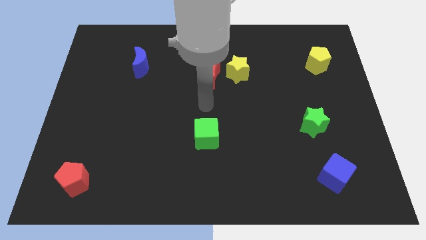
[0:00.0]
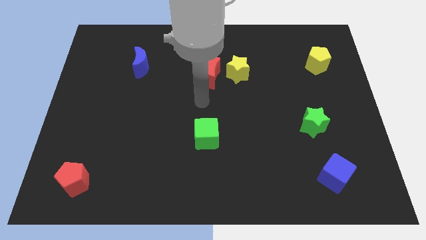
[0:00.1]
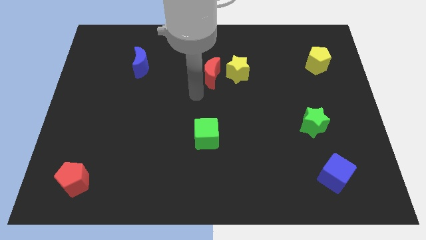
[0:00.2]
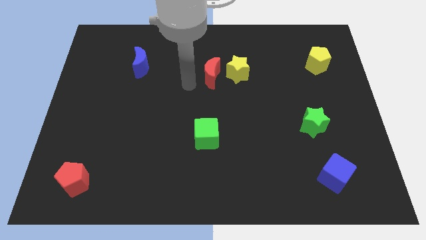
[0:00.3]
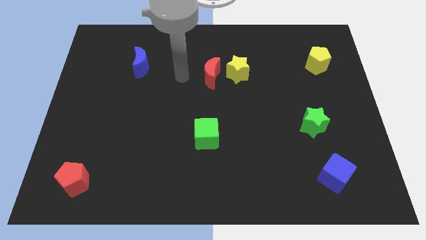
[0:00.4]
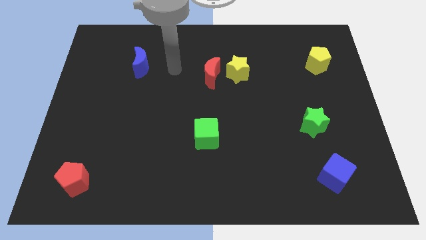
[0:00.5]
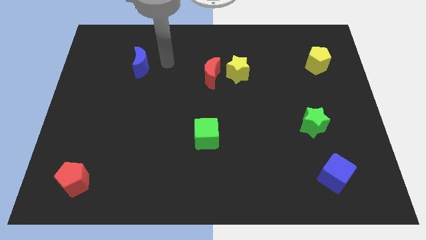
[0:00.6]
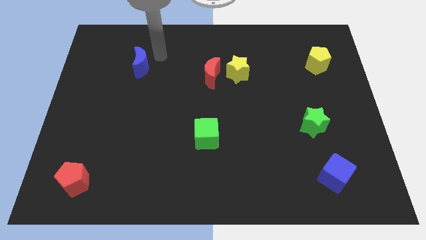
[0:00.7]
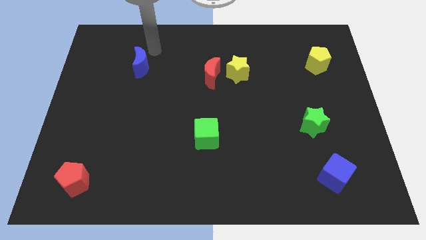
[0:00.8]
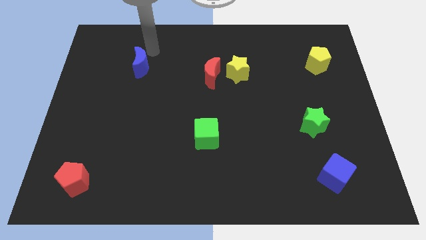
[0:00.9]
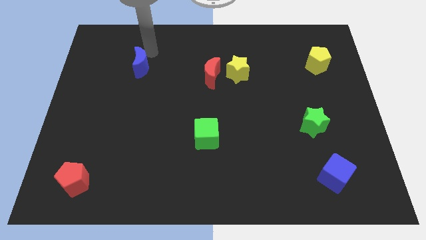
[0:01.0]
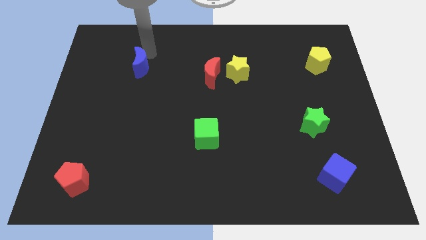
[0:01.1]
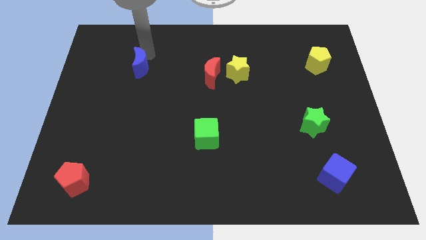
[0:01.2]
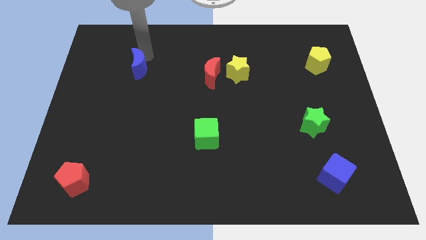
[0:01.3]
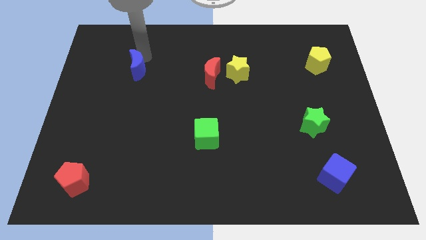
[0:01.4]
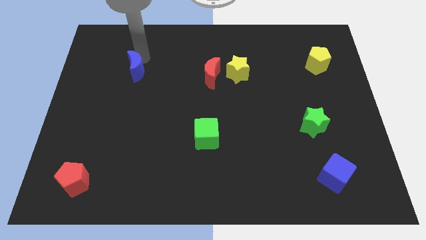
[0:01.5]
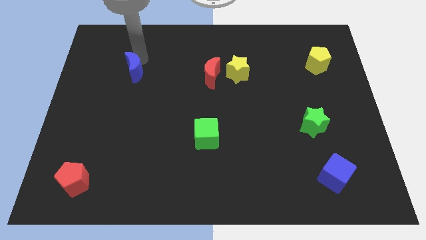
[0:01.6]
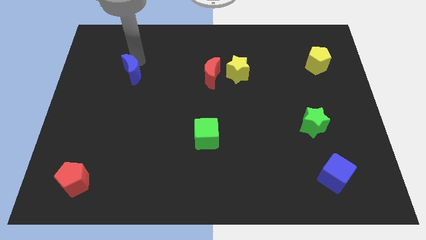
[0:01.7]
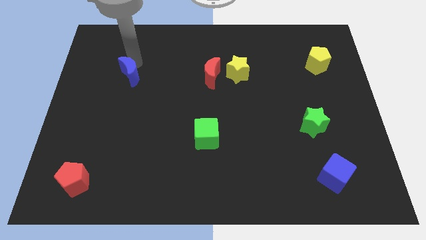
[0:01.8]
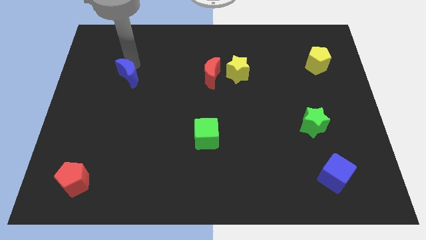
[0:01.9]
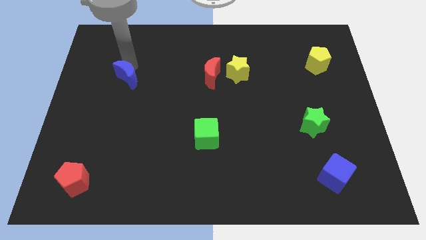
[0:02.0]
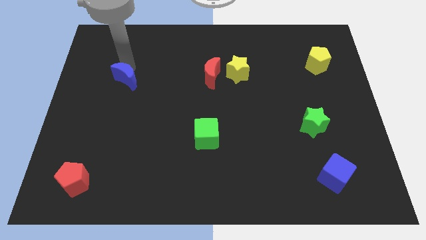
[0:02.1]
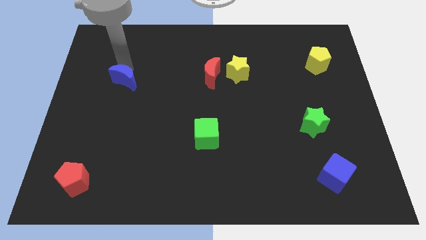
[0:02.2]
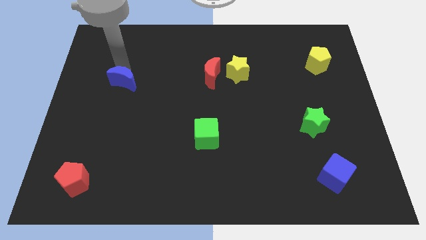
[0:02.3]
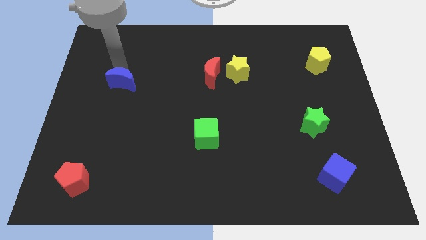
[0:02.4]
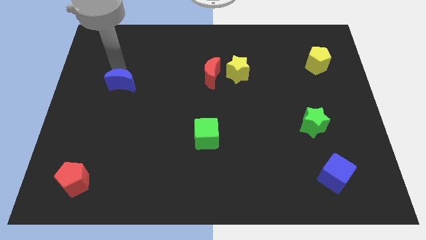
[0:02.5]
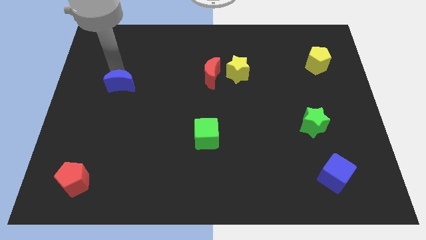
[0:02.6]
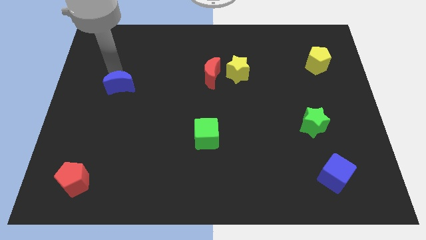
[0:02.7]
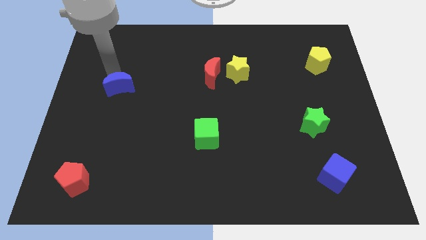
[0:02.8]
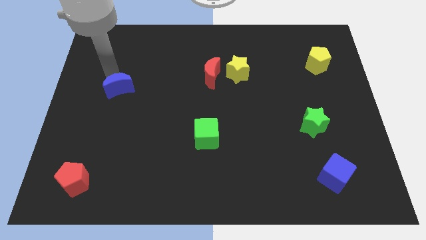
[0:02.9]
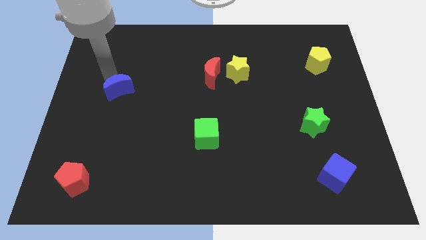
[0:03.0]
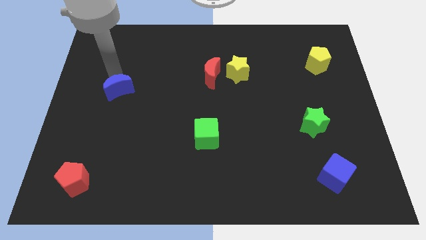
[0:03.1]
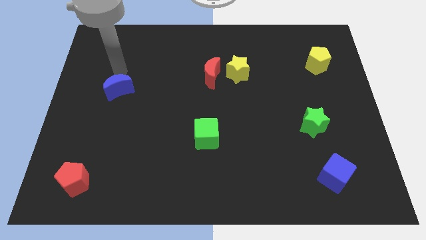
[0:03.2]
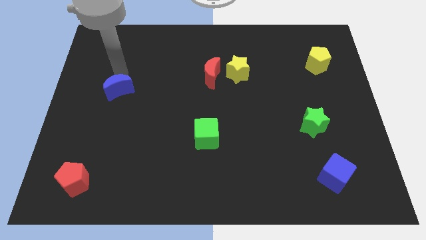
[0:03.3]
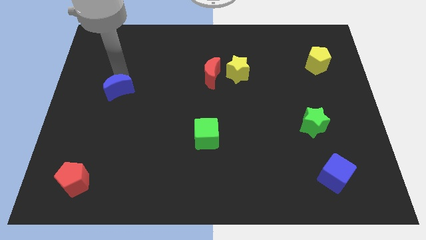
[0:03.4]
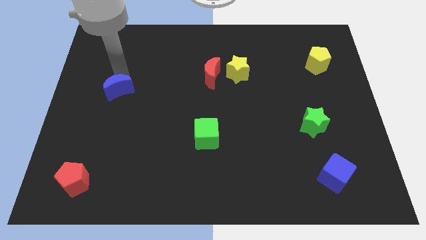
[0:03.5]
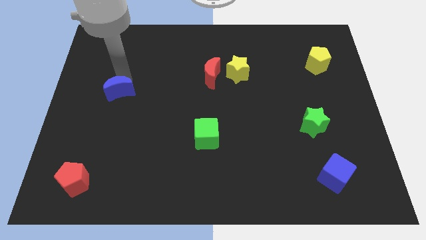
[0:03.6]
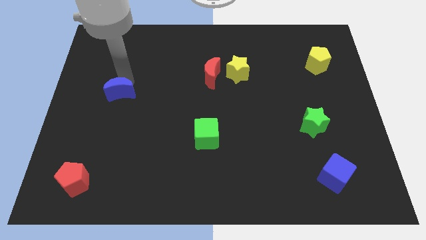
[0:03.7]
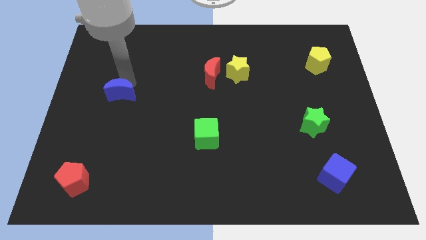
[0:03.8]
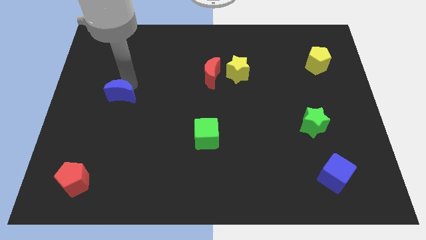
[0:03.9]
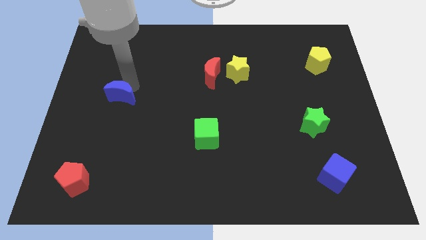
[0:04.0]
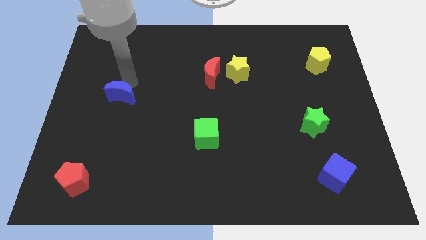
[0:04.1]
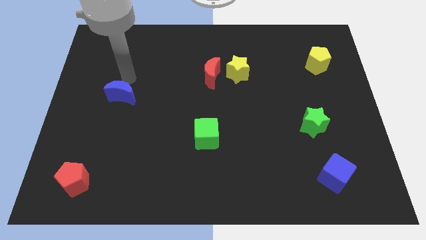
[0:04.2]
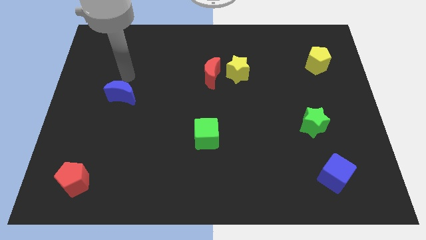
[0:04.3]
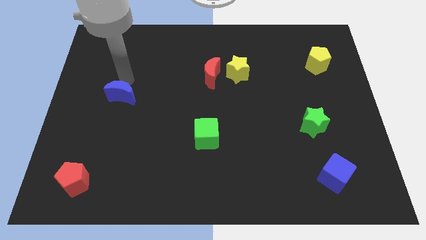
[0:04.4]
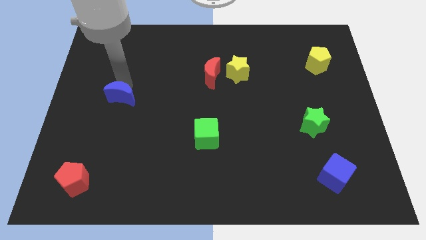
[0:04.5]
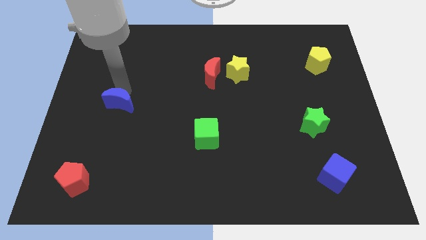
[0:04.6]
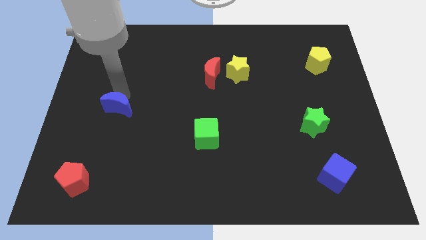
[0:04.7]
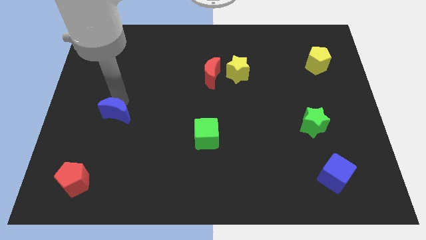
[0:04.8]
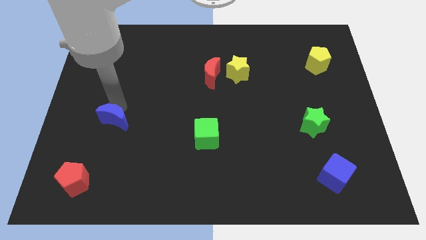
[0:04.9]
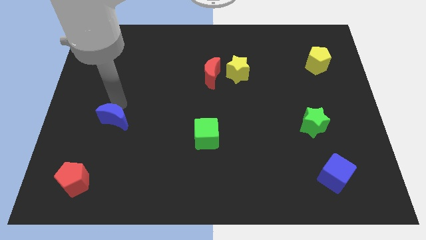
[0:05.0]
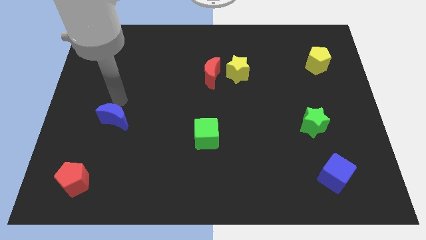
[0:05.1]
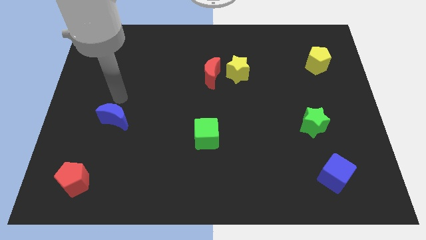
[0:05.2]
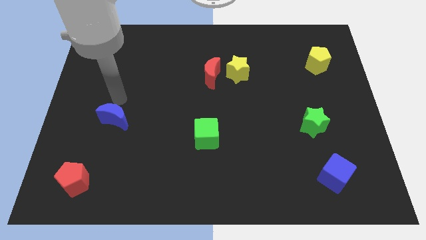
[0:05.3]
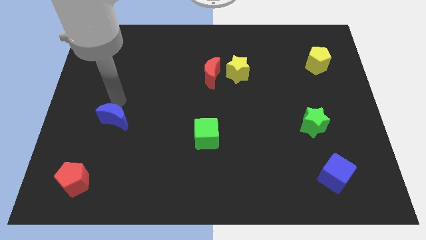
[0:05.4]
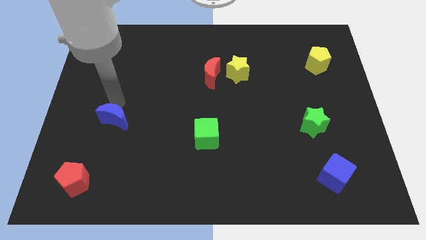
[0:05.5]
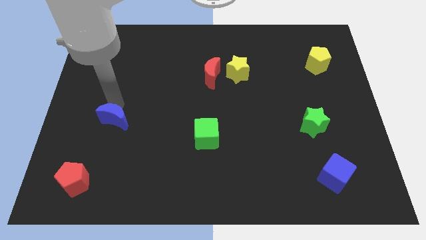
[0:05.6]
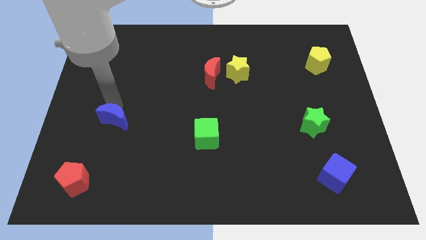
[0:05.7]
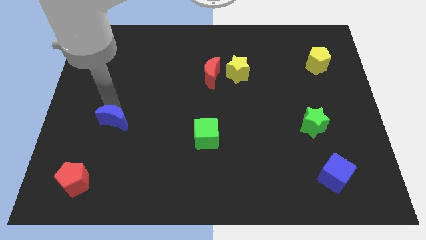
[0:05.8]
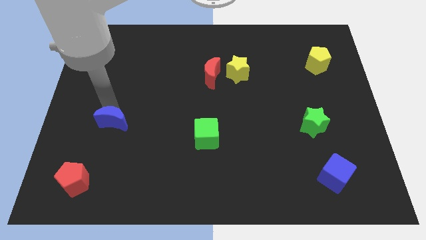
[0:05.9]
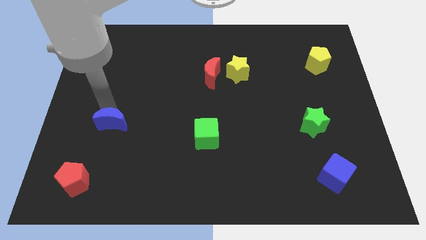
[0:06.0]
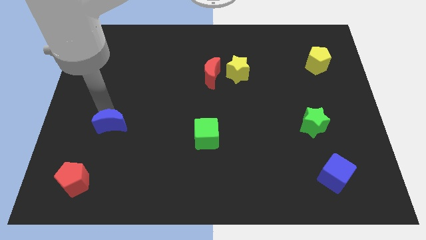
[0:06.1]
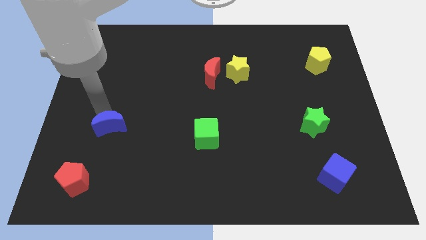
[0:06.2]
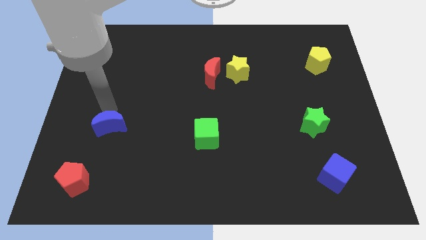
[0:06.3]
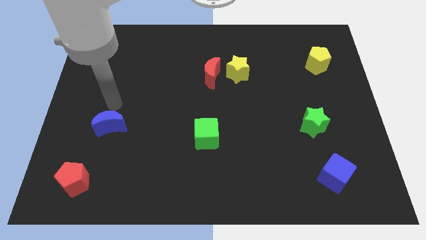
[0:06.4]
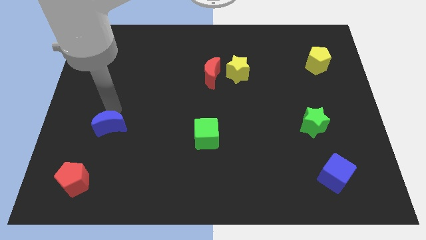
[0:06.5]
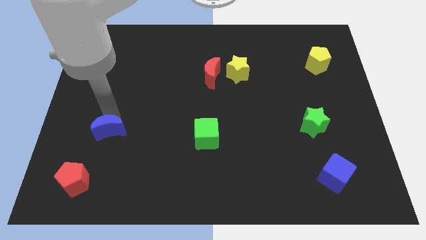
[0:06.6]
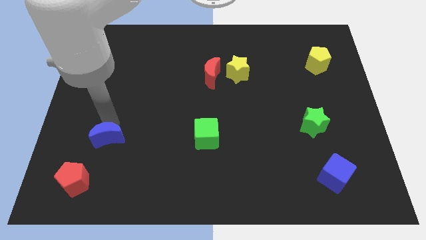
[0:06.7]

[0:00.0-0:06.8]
put the blue moon to the top right side of the red pentagon

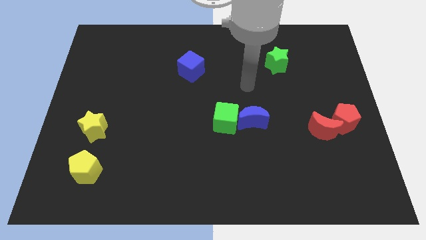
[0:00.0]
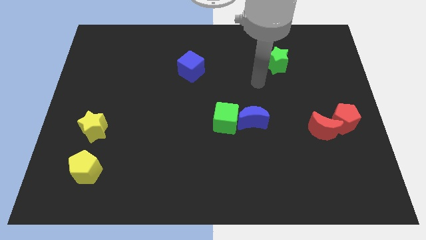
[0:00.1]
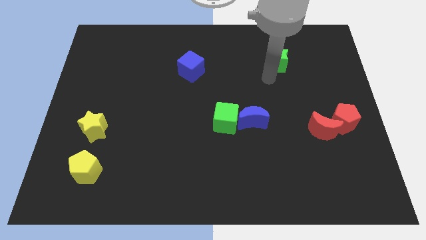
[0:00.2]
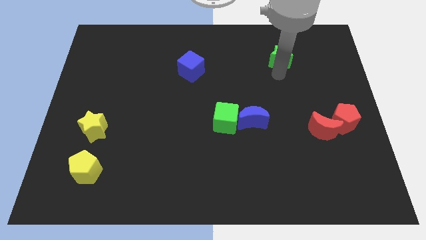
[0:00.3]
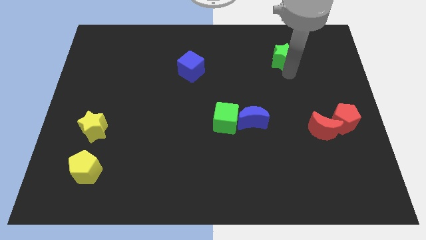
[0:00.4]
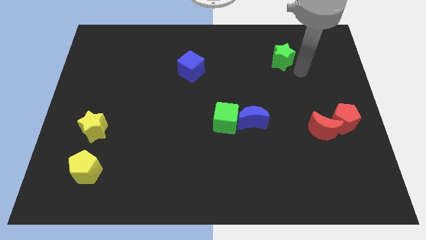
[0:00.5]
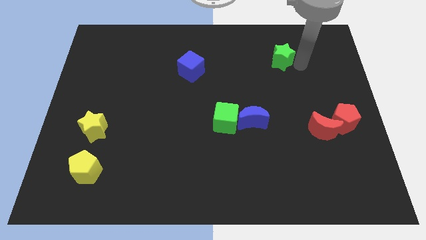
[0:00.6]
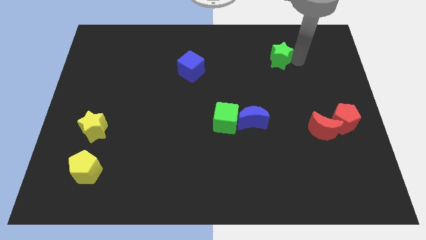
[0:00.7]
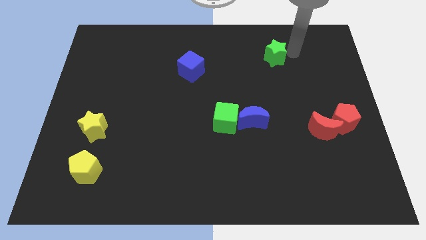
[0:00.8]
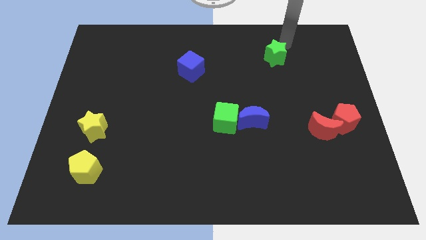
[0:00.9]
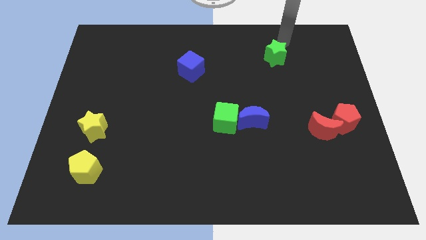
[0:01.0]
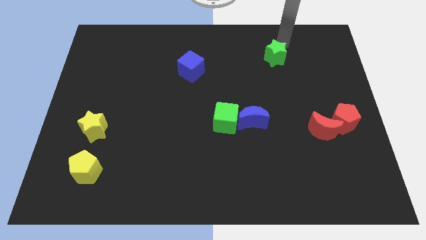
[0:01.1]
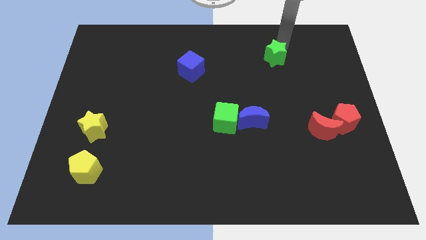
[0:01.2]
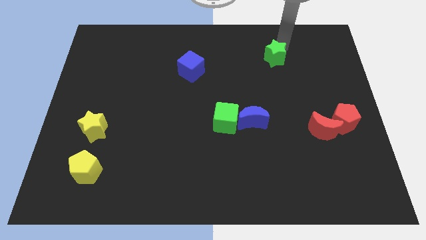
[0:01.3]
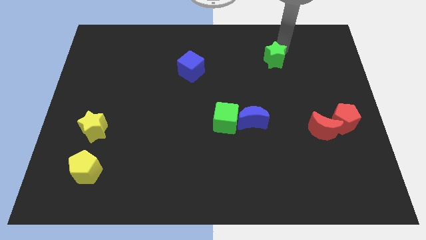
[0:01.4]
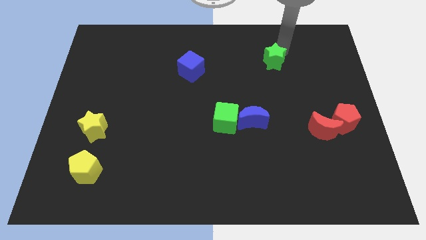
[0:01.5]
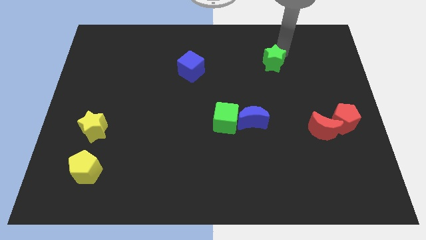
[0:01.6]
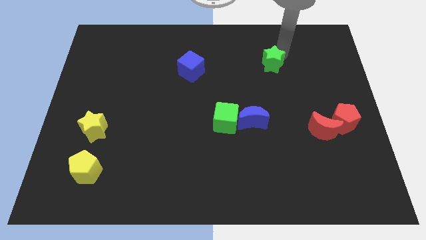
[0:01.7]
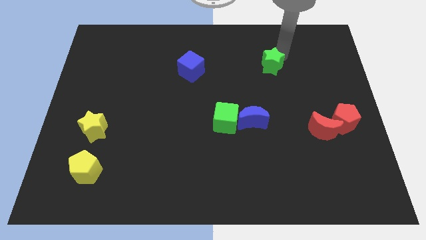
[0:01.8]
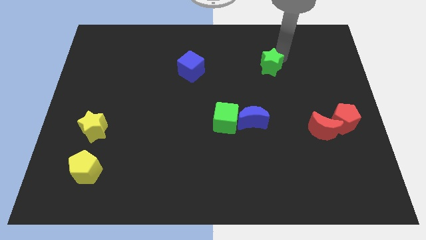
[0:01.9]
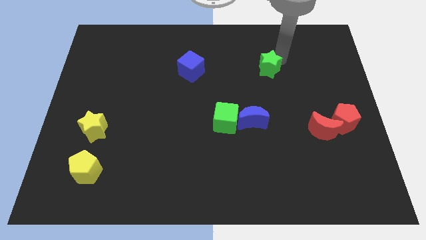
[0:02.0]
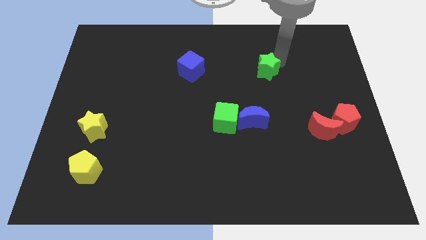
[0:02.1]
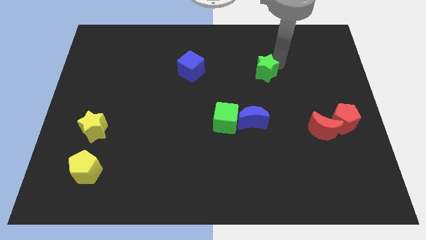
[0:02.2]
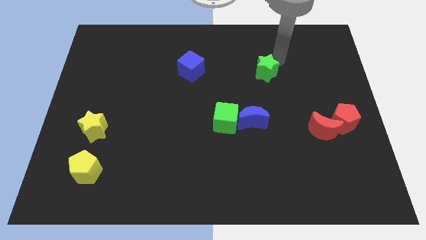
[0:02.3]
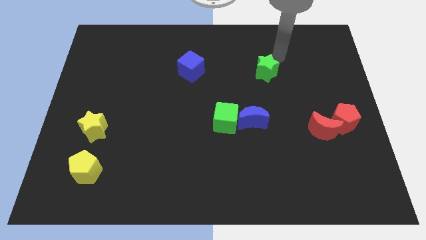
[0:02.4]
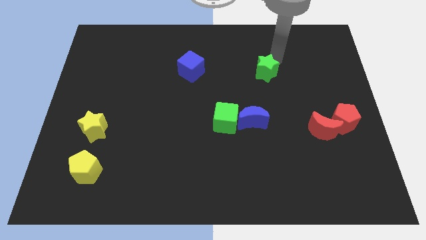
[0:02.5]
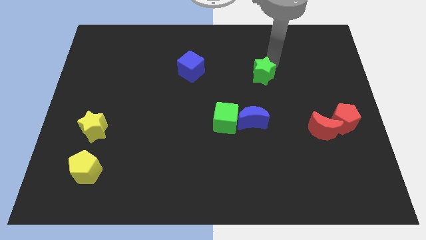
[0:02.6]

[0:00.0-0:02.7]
push the green star to the top side of the blue moon
